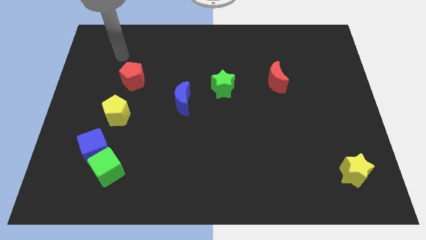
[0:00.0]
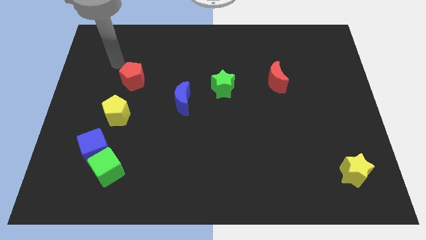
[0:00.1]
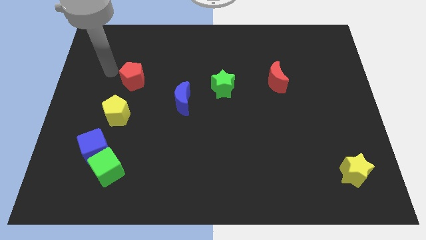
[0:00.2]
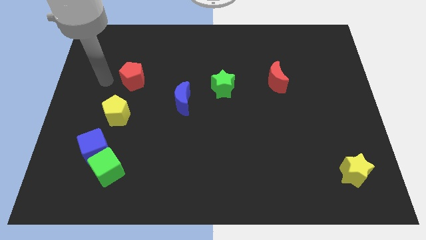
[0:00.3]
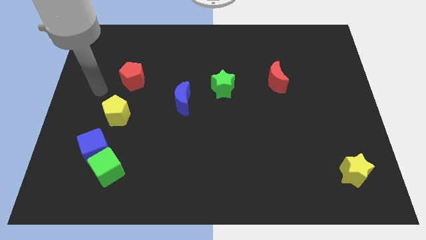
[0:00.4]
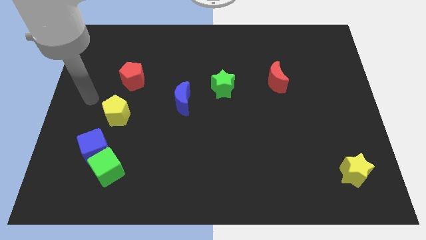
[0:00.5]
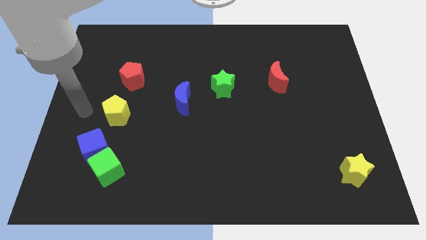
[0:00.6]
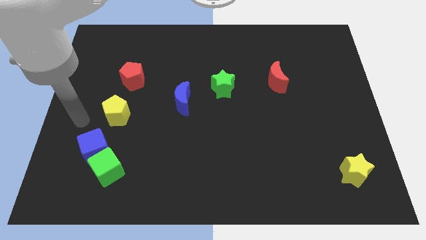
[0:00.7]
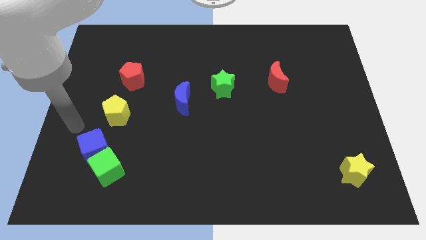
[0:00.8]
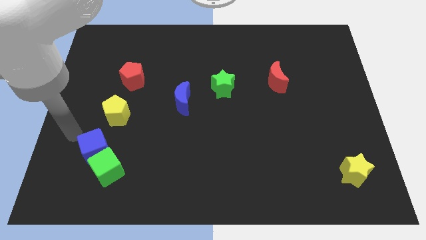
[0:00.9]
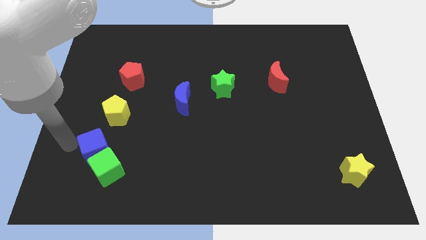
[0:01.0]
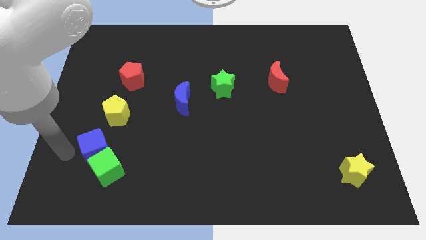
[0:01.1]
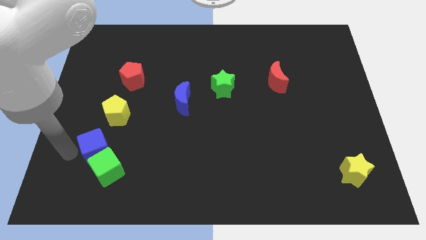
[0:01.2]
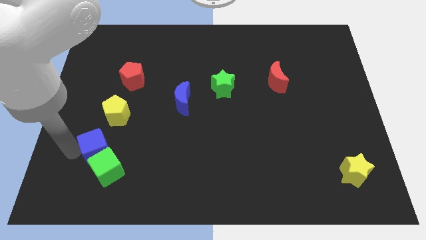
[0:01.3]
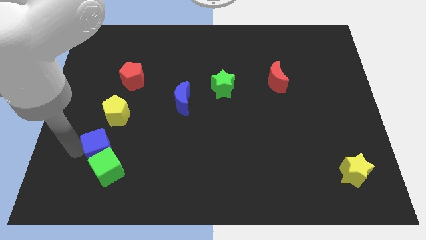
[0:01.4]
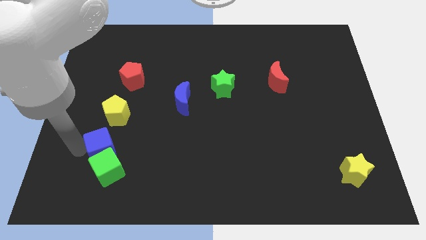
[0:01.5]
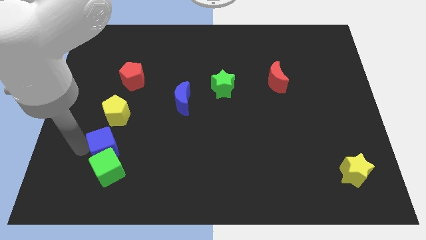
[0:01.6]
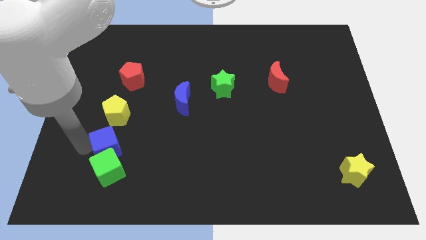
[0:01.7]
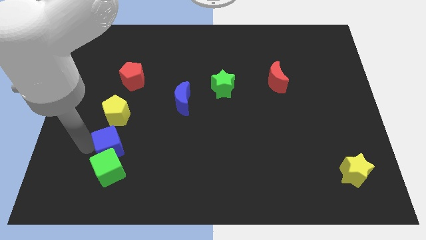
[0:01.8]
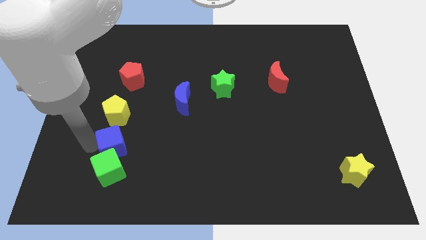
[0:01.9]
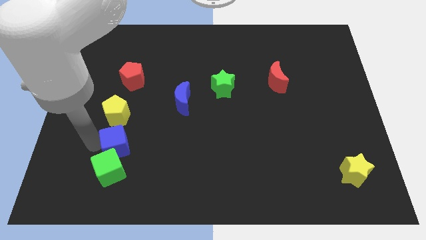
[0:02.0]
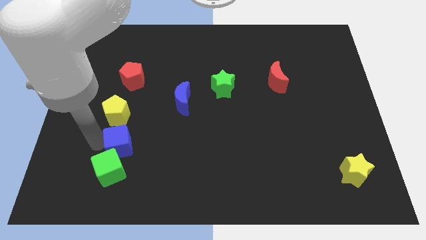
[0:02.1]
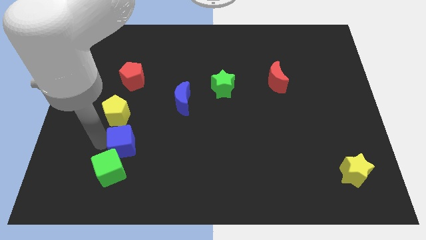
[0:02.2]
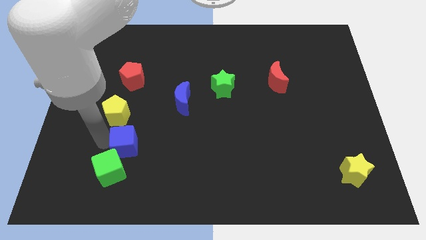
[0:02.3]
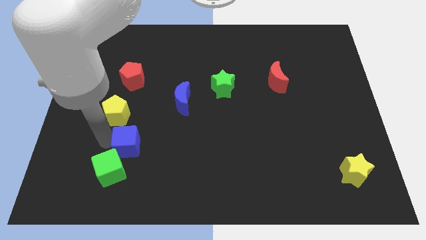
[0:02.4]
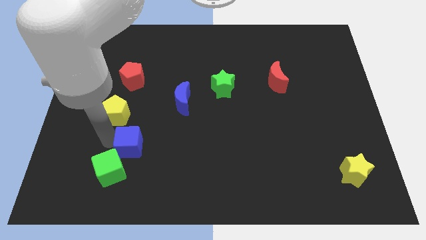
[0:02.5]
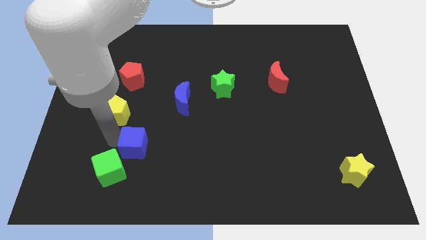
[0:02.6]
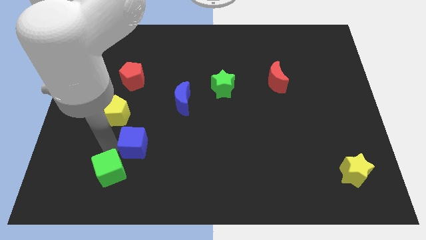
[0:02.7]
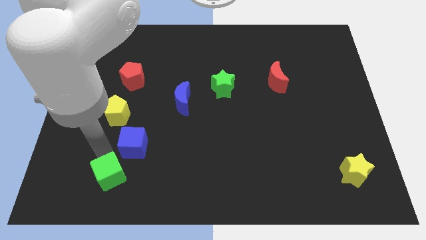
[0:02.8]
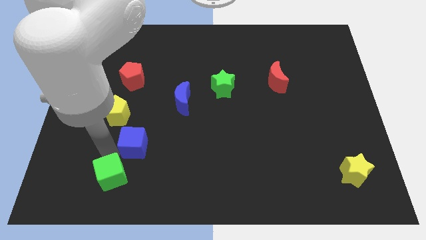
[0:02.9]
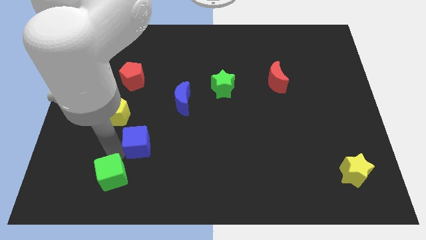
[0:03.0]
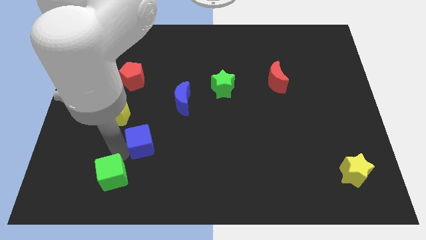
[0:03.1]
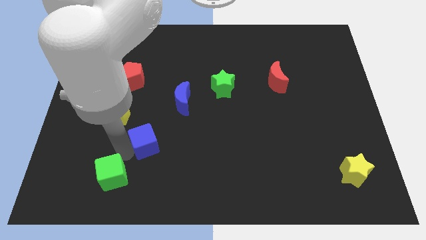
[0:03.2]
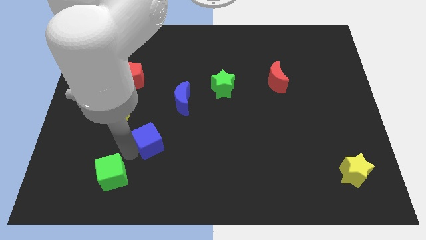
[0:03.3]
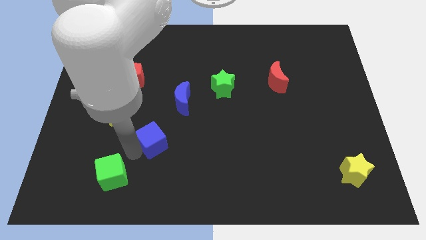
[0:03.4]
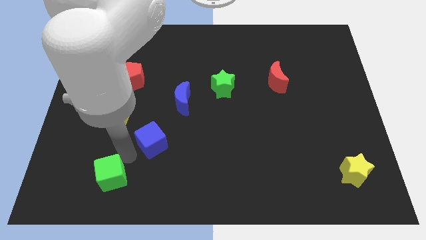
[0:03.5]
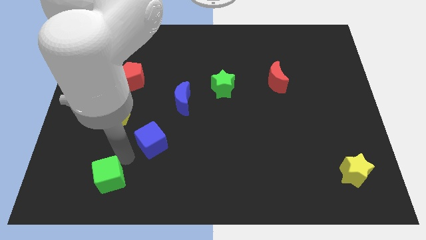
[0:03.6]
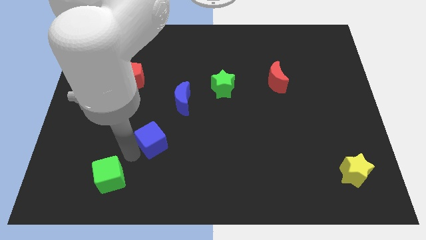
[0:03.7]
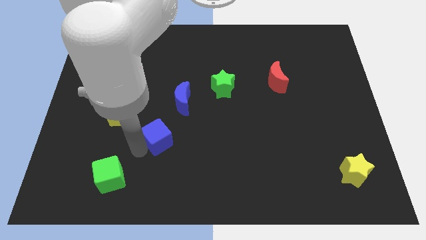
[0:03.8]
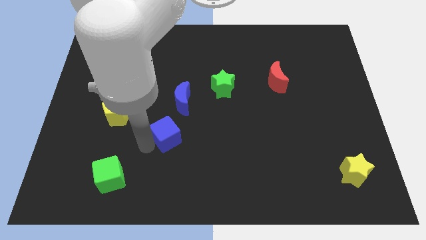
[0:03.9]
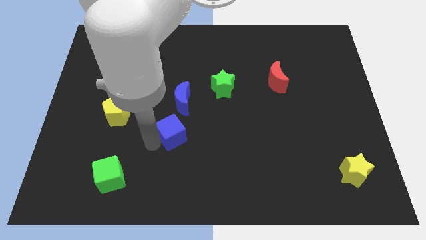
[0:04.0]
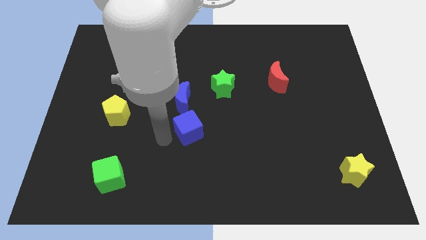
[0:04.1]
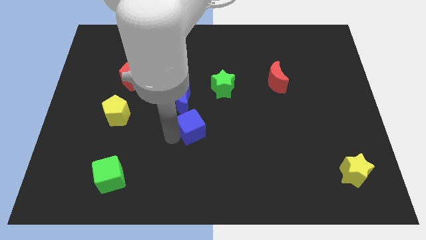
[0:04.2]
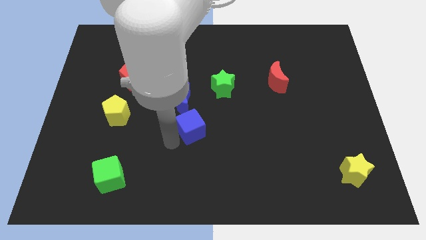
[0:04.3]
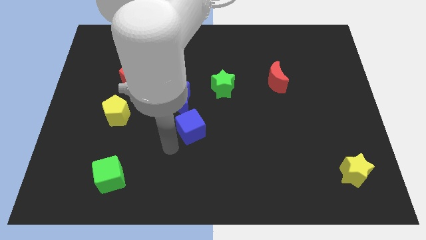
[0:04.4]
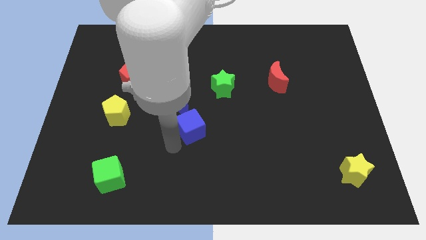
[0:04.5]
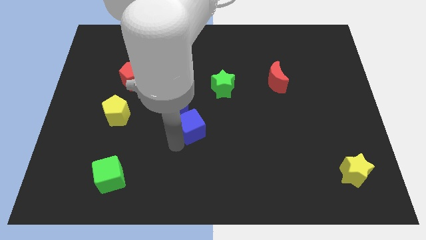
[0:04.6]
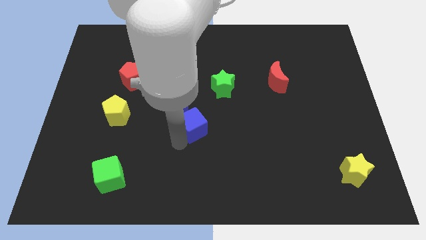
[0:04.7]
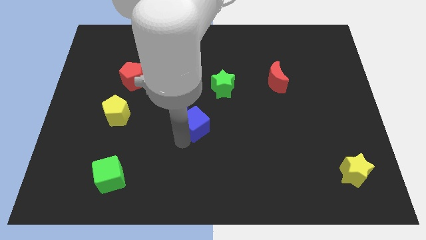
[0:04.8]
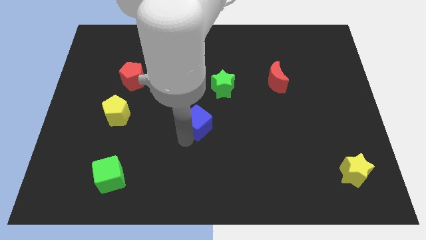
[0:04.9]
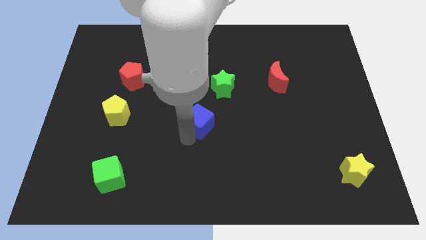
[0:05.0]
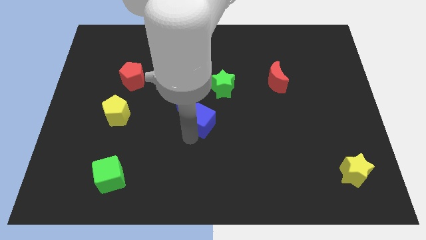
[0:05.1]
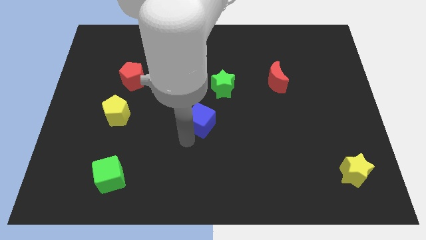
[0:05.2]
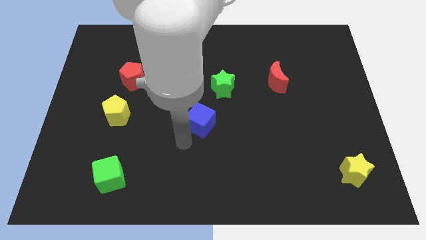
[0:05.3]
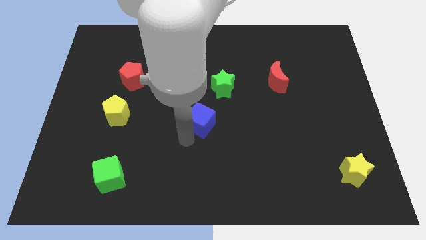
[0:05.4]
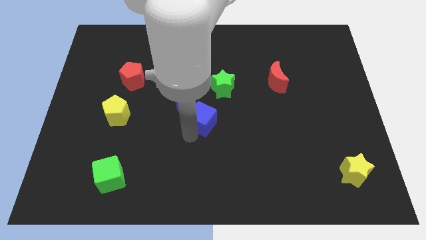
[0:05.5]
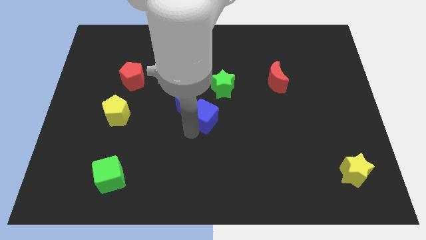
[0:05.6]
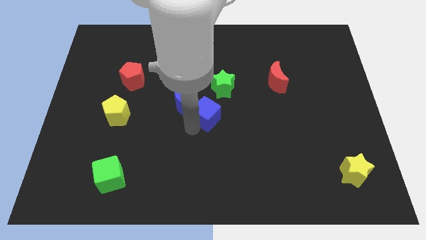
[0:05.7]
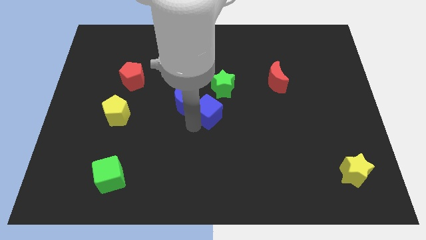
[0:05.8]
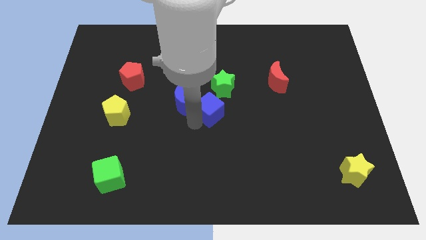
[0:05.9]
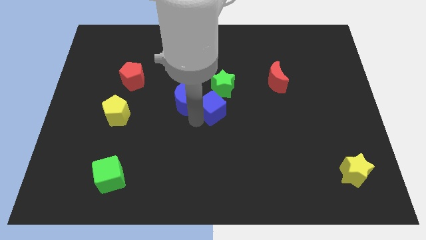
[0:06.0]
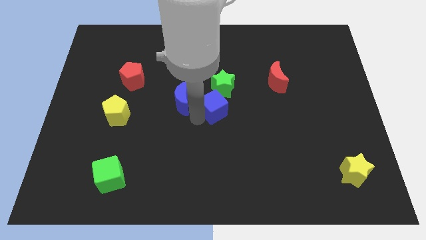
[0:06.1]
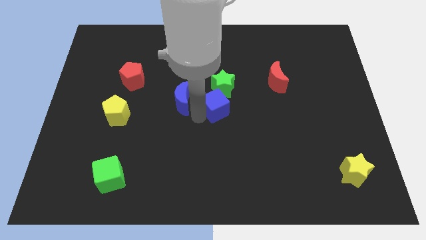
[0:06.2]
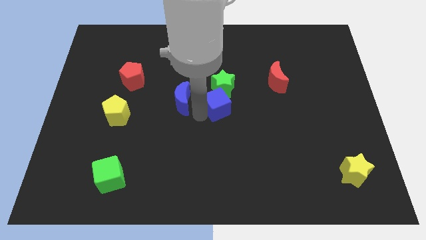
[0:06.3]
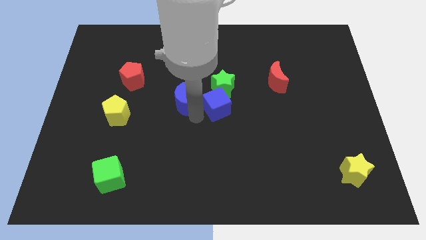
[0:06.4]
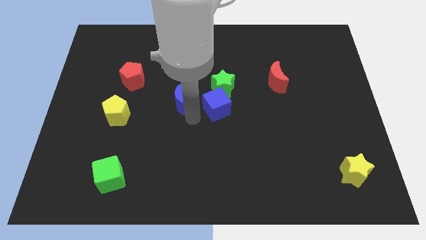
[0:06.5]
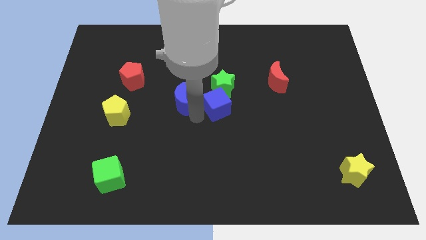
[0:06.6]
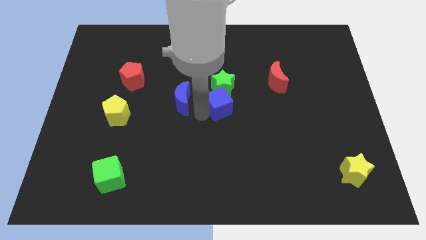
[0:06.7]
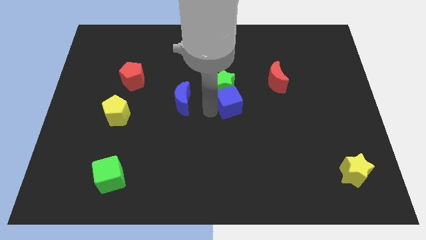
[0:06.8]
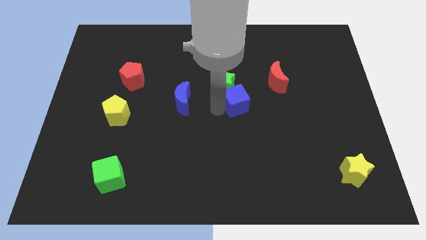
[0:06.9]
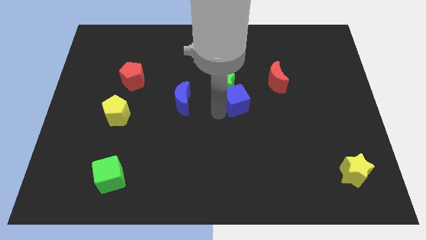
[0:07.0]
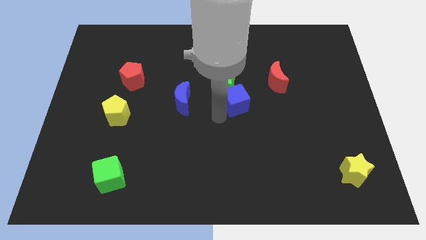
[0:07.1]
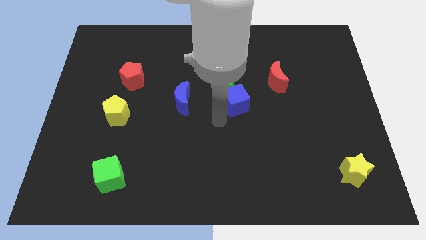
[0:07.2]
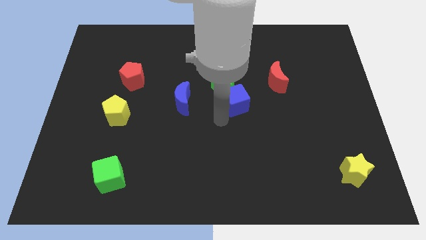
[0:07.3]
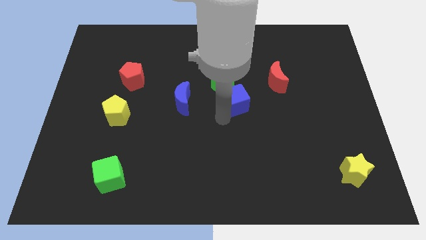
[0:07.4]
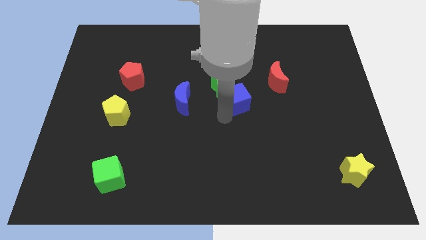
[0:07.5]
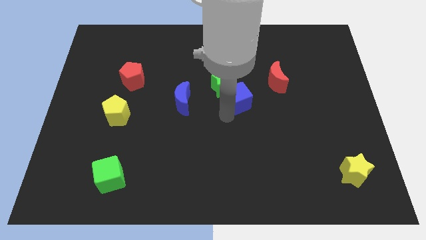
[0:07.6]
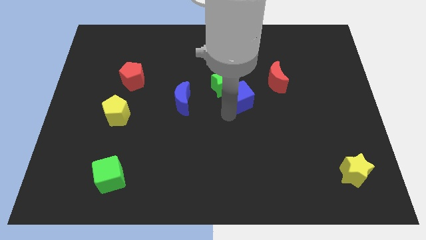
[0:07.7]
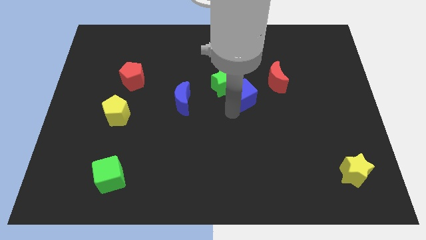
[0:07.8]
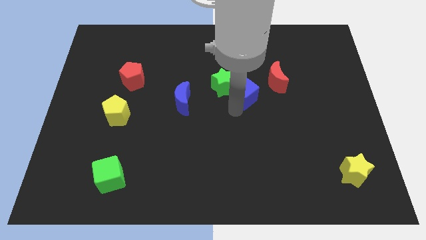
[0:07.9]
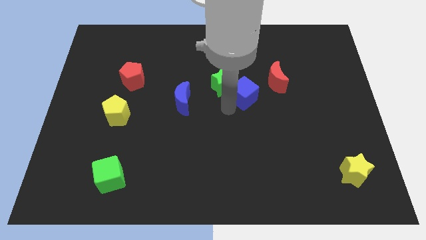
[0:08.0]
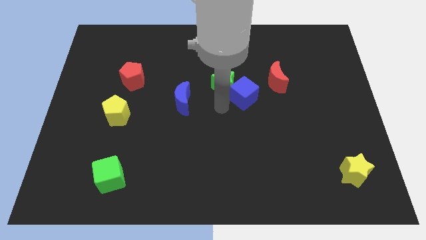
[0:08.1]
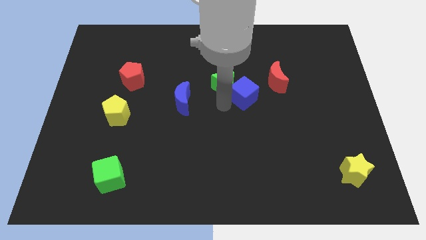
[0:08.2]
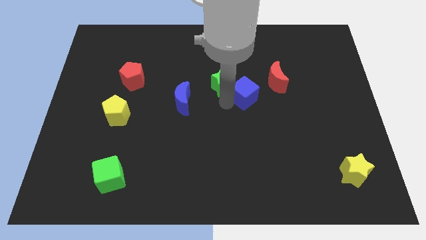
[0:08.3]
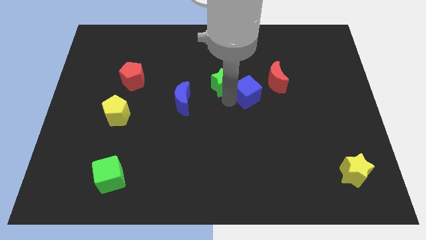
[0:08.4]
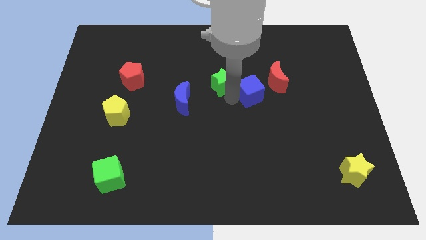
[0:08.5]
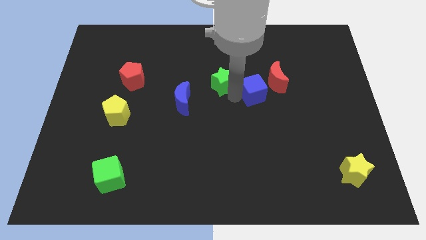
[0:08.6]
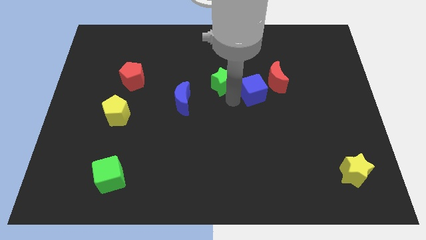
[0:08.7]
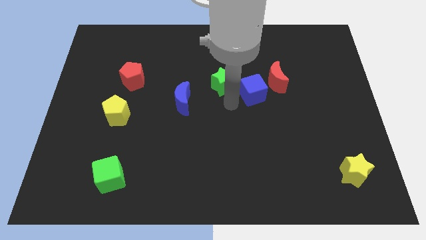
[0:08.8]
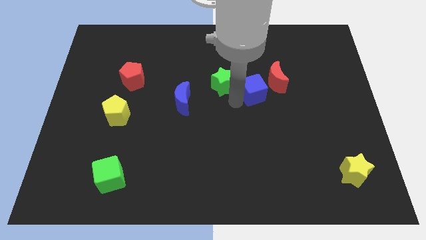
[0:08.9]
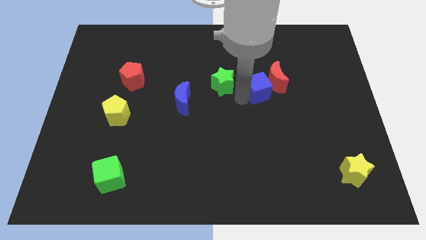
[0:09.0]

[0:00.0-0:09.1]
slide the blue cube close to the red moon
